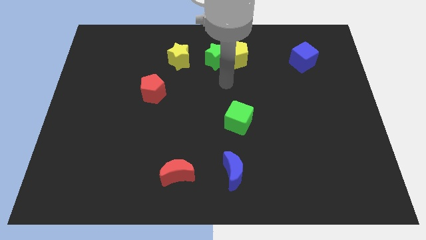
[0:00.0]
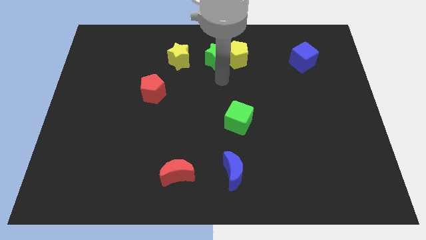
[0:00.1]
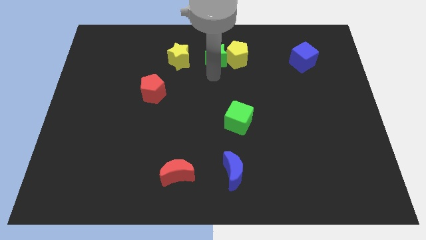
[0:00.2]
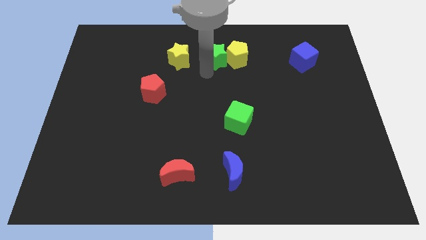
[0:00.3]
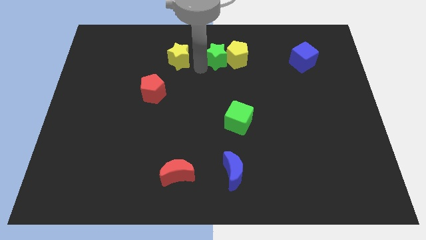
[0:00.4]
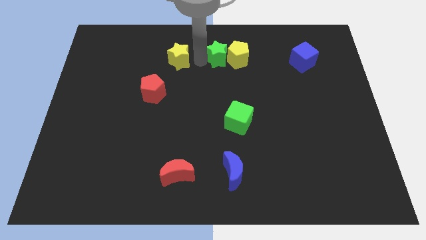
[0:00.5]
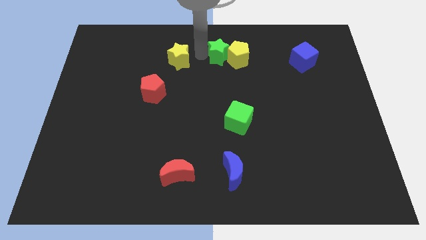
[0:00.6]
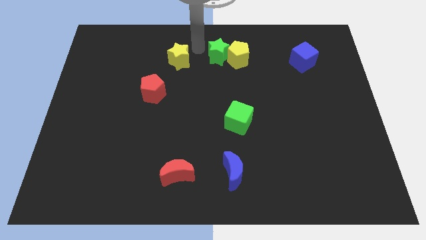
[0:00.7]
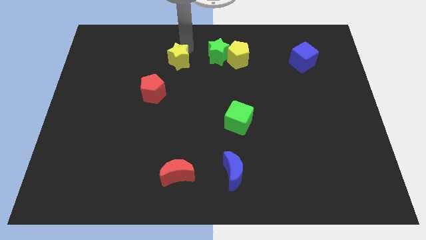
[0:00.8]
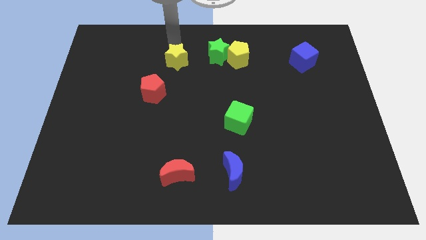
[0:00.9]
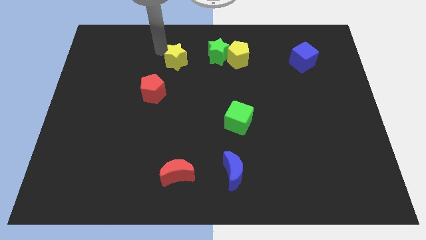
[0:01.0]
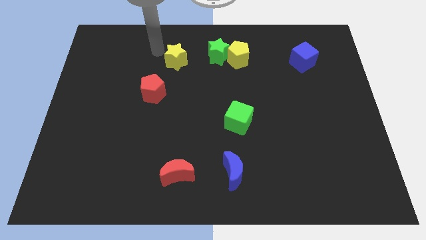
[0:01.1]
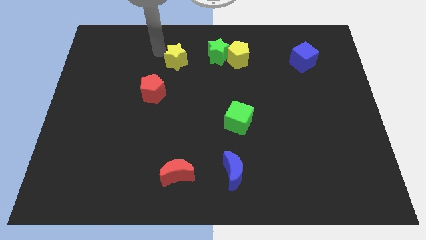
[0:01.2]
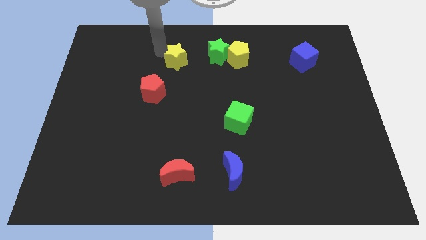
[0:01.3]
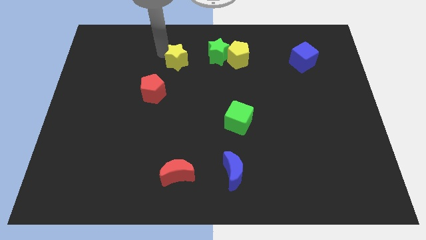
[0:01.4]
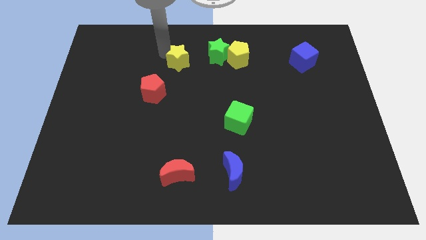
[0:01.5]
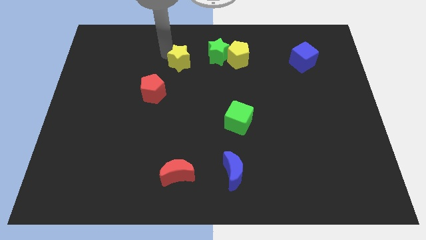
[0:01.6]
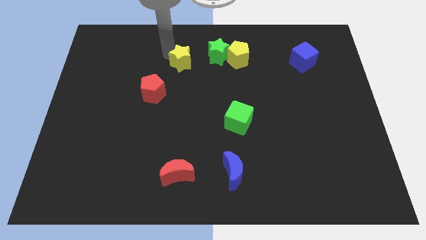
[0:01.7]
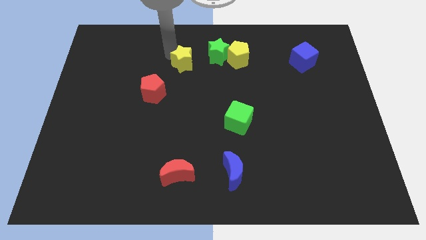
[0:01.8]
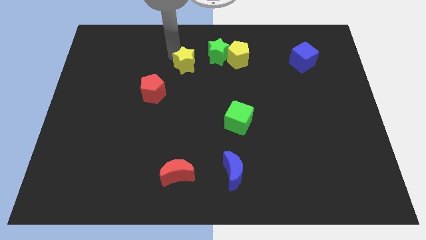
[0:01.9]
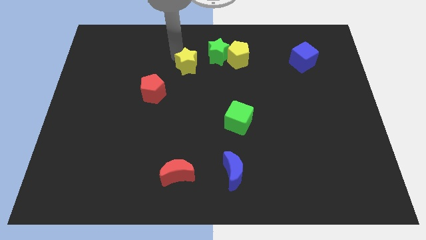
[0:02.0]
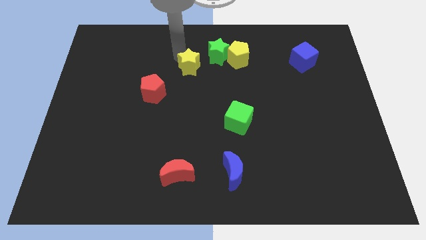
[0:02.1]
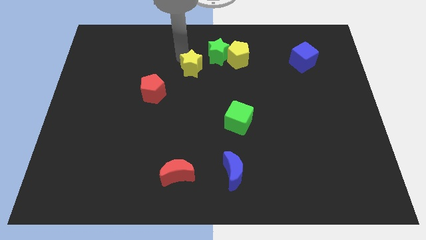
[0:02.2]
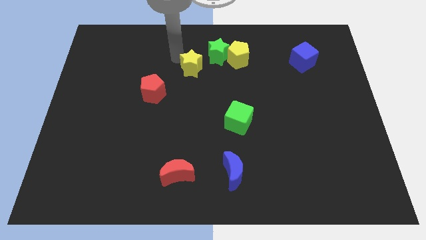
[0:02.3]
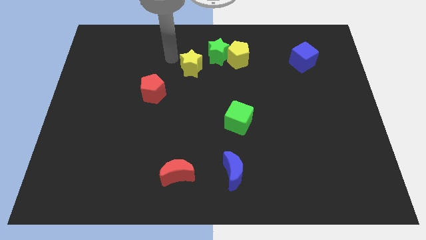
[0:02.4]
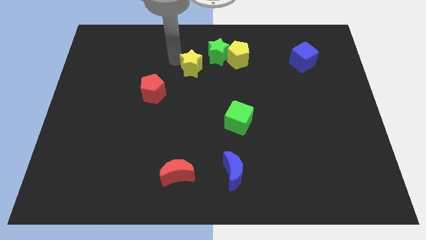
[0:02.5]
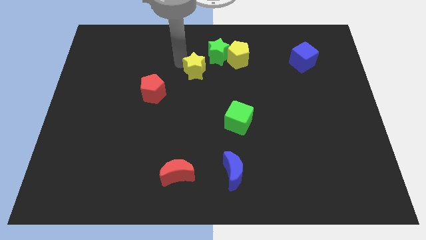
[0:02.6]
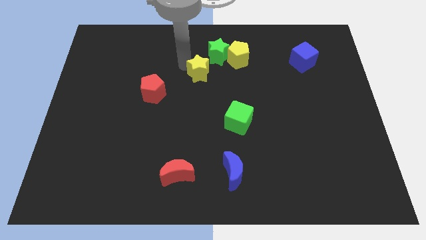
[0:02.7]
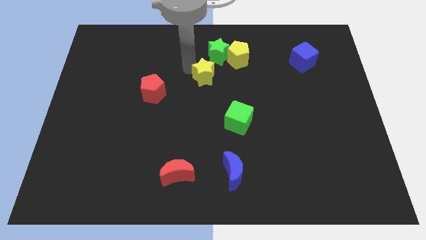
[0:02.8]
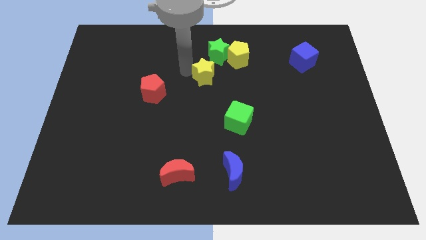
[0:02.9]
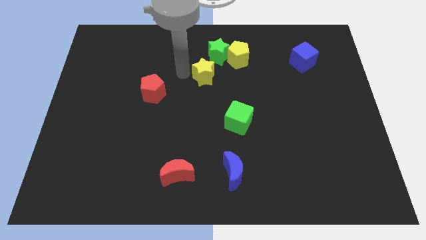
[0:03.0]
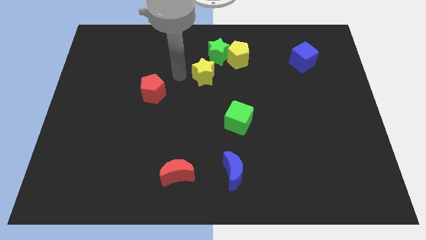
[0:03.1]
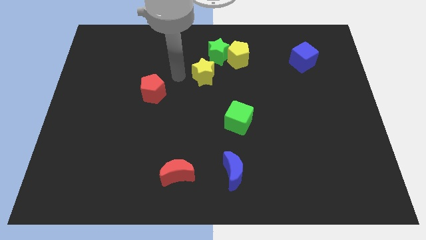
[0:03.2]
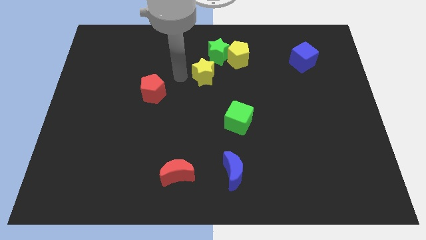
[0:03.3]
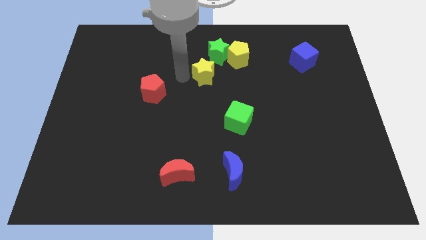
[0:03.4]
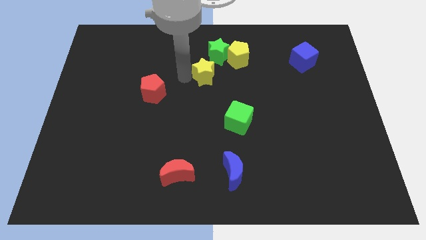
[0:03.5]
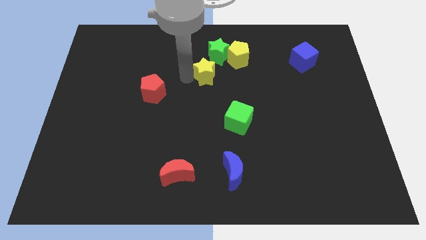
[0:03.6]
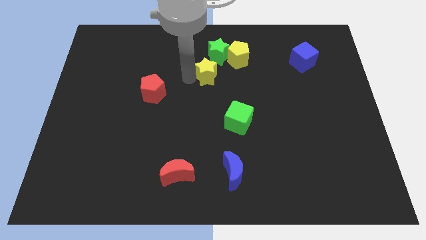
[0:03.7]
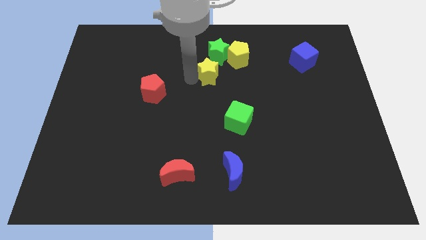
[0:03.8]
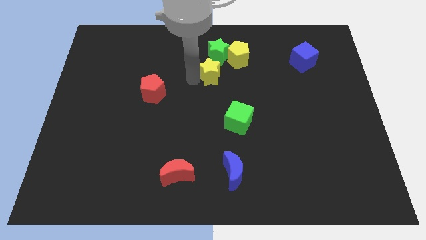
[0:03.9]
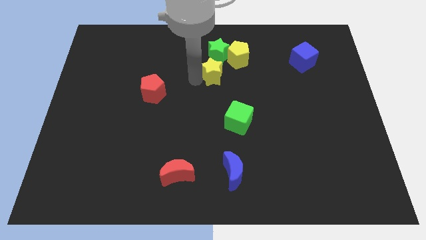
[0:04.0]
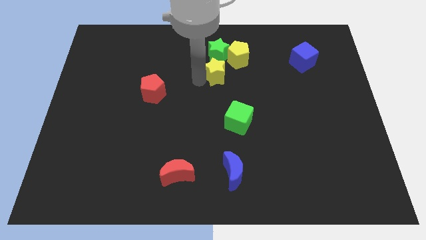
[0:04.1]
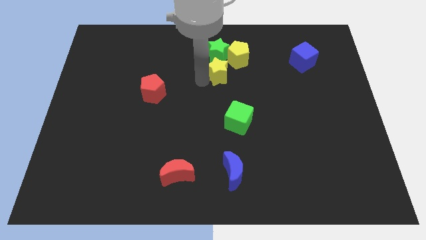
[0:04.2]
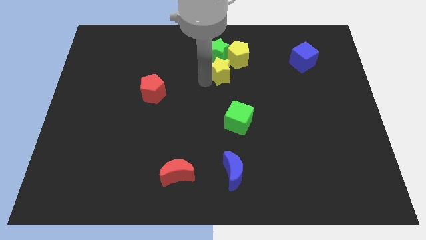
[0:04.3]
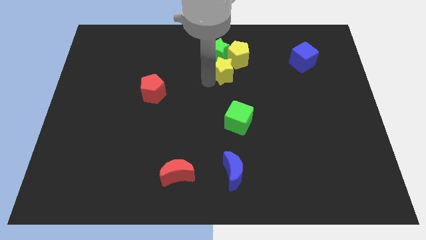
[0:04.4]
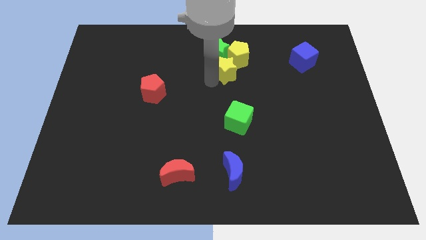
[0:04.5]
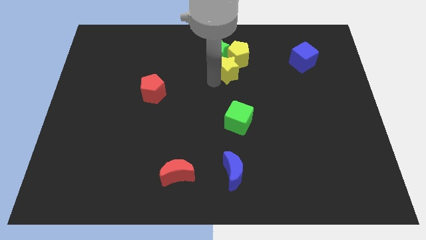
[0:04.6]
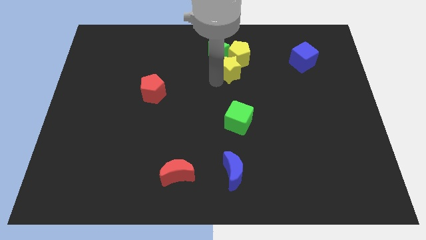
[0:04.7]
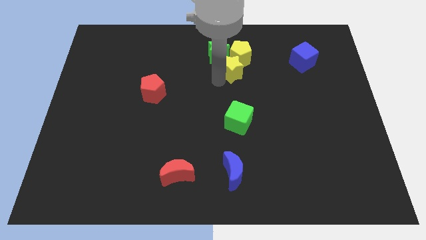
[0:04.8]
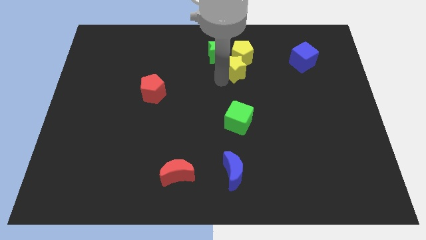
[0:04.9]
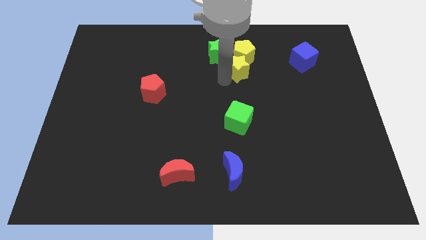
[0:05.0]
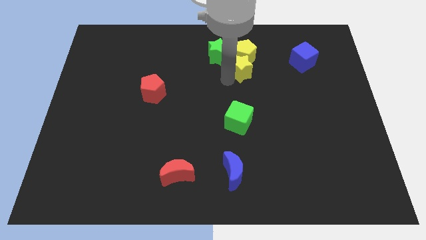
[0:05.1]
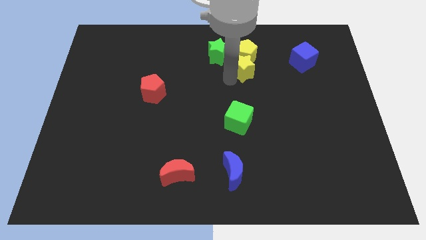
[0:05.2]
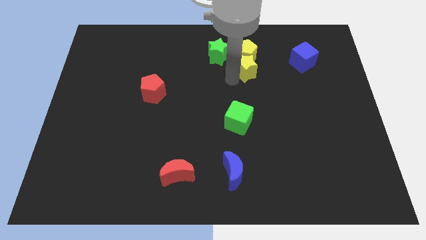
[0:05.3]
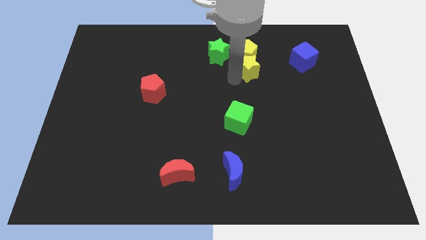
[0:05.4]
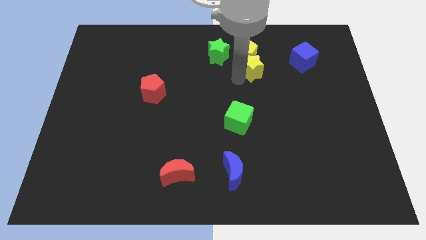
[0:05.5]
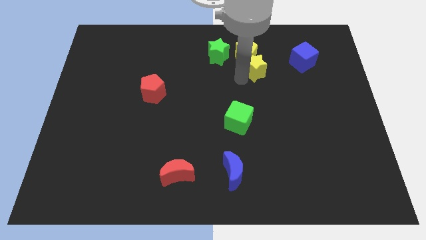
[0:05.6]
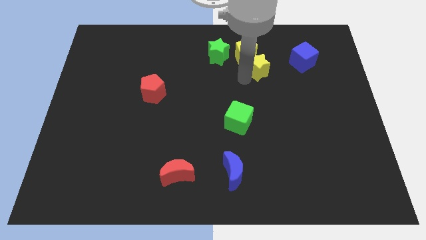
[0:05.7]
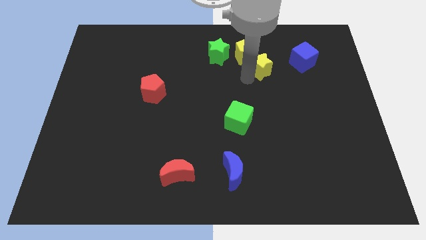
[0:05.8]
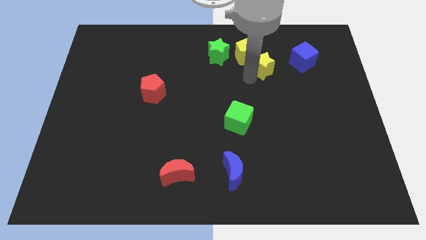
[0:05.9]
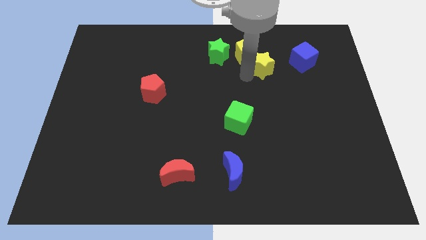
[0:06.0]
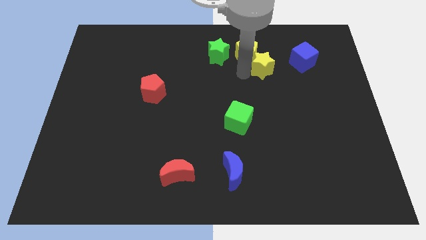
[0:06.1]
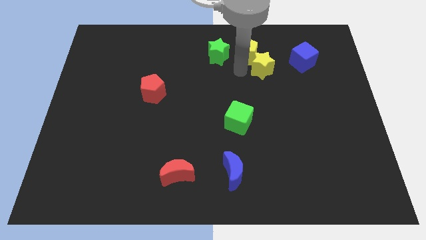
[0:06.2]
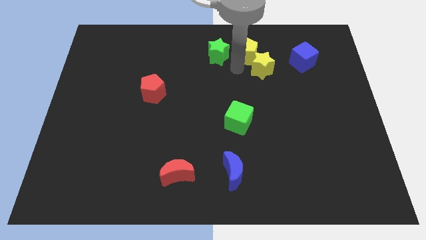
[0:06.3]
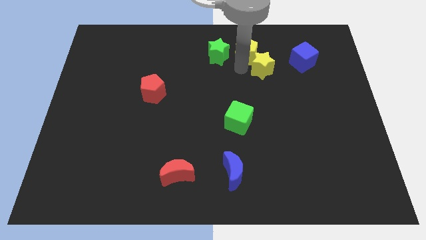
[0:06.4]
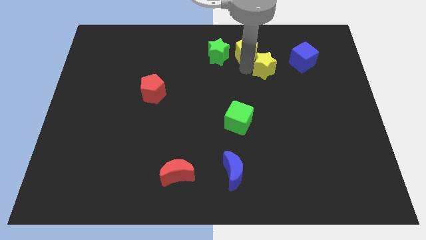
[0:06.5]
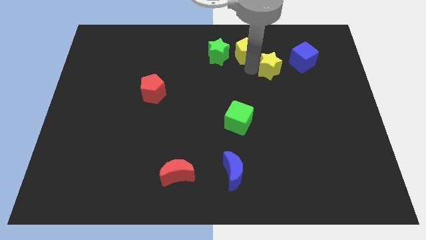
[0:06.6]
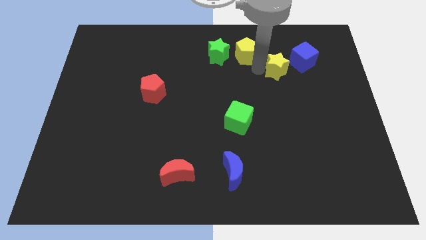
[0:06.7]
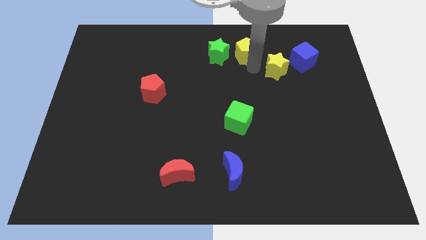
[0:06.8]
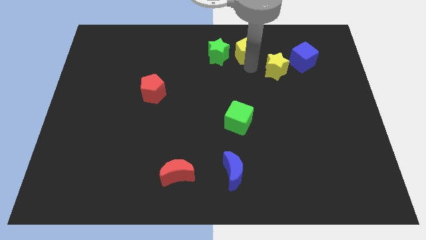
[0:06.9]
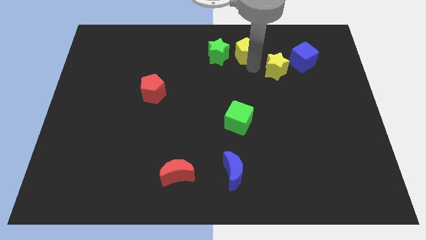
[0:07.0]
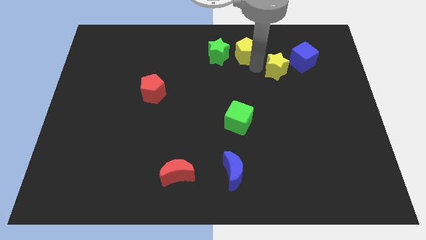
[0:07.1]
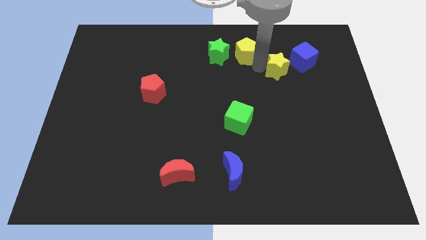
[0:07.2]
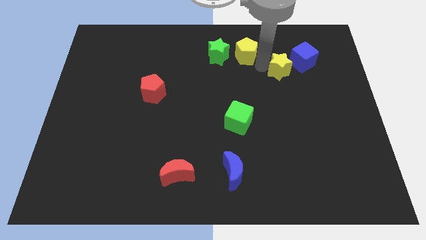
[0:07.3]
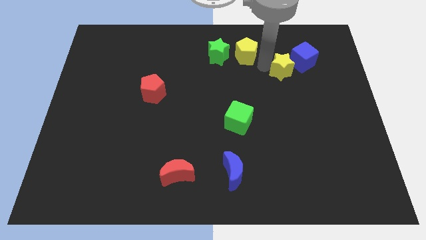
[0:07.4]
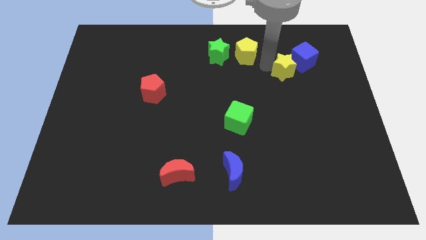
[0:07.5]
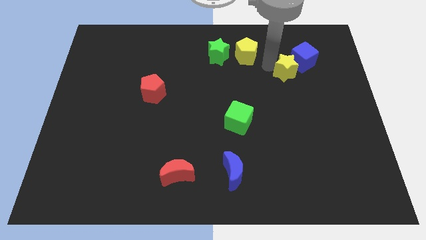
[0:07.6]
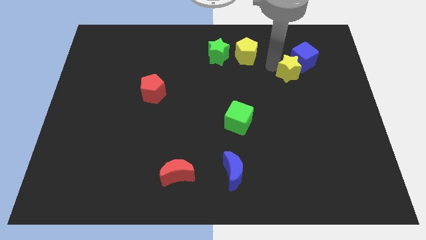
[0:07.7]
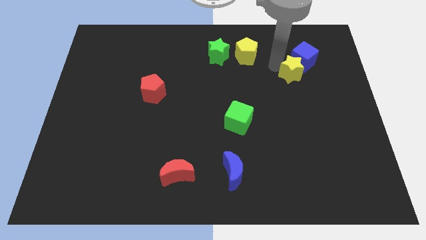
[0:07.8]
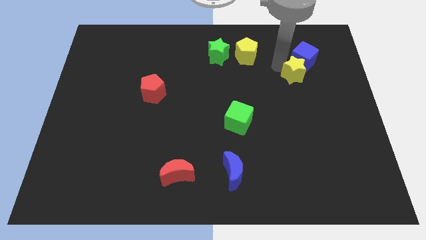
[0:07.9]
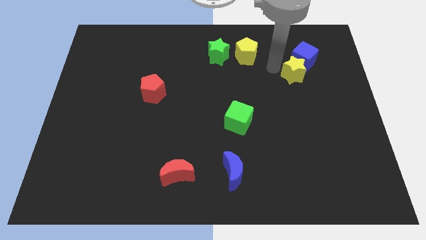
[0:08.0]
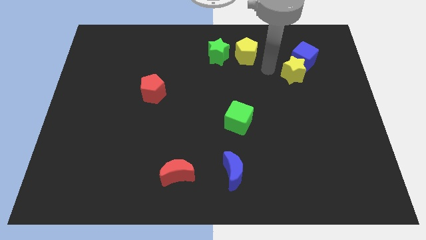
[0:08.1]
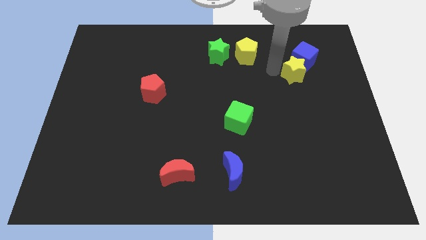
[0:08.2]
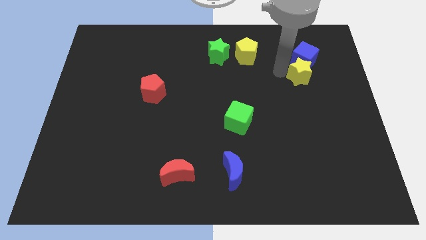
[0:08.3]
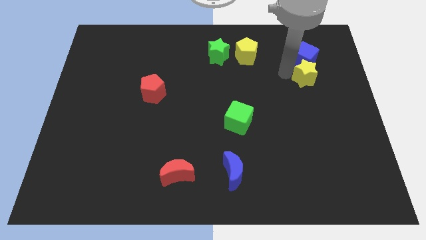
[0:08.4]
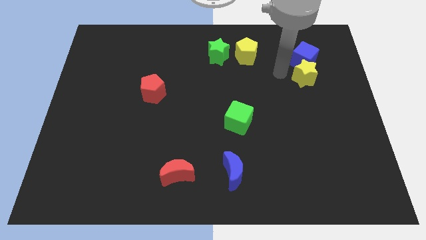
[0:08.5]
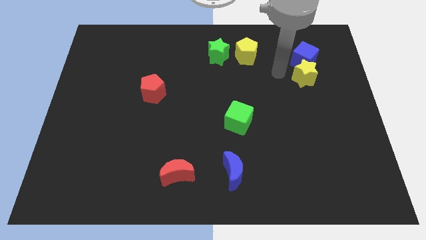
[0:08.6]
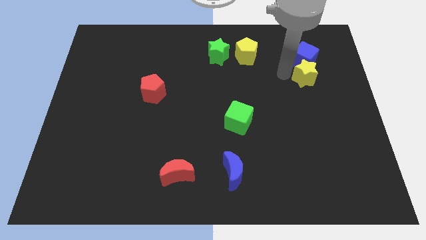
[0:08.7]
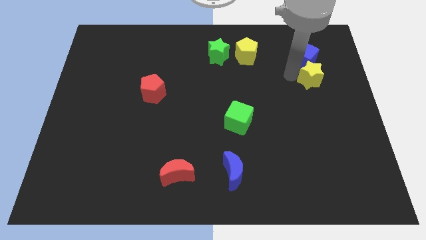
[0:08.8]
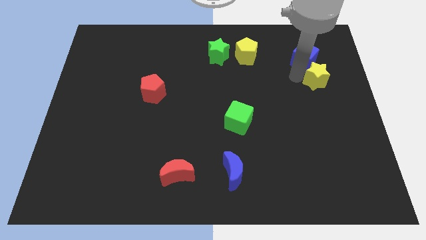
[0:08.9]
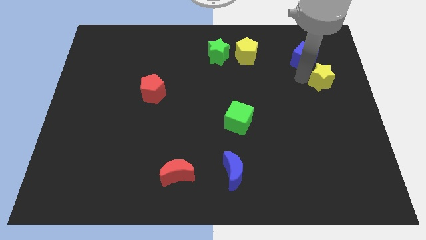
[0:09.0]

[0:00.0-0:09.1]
put the yellow star to the right side of the board
